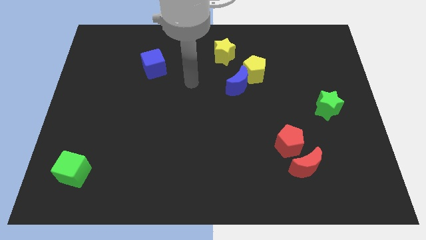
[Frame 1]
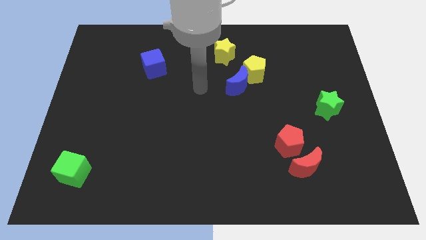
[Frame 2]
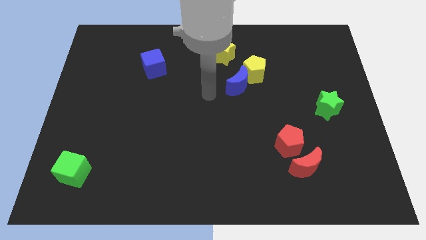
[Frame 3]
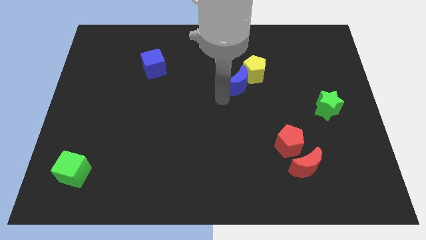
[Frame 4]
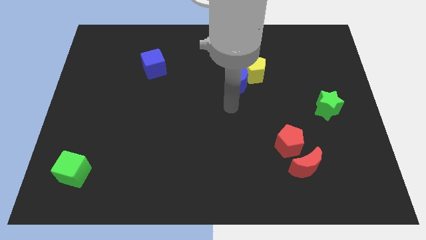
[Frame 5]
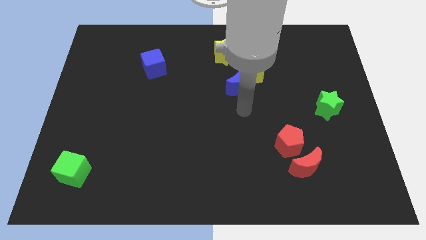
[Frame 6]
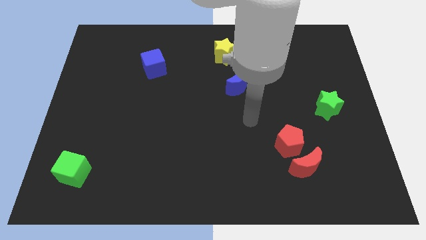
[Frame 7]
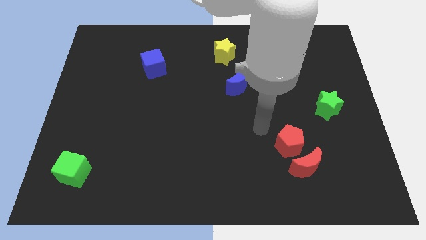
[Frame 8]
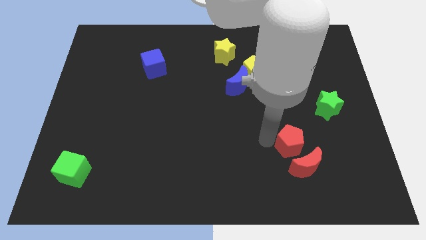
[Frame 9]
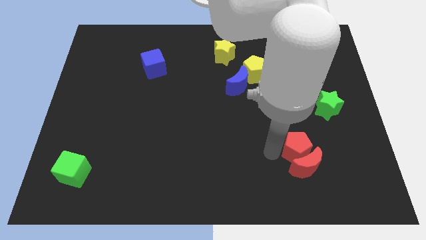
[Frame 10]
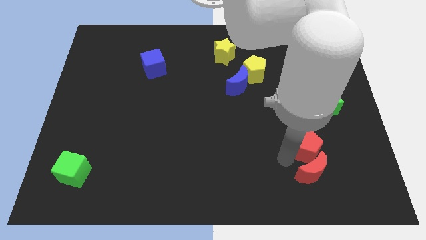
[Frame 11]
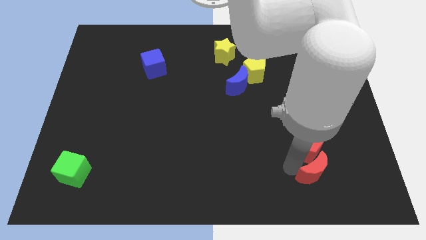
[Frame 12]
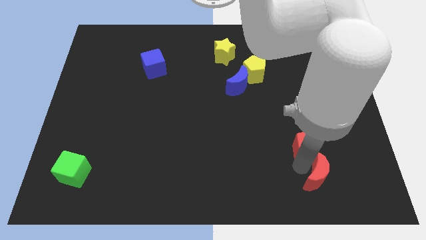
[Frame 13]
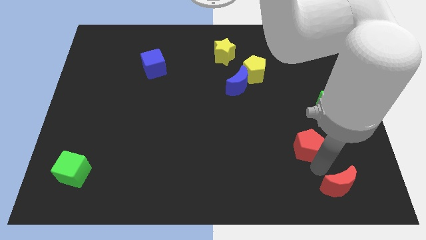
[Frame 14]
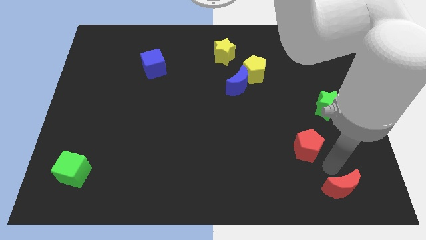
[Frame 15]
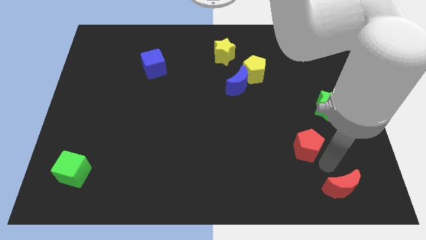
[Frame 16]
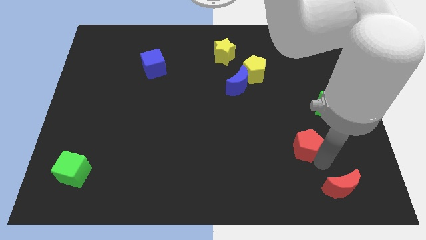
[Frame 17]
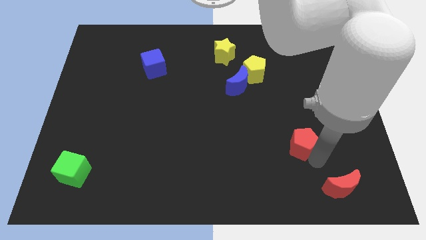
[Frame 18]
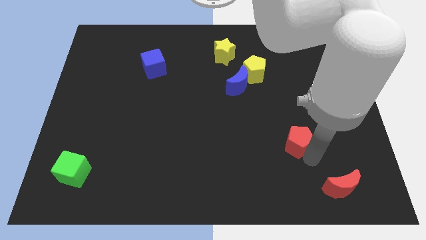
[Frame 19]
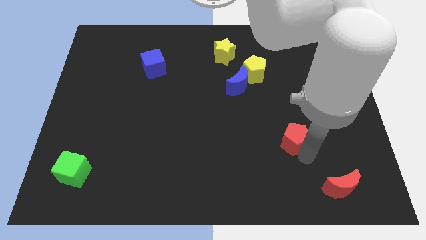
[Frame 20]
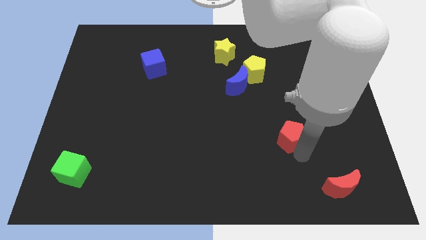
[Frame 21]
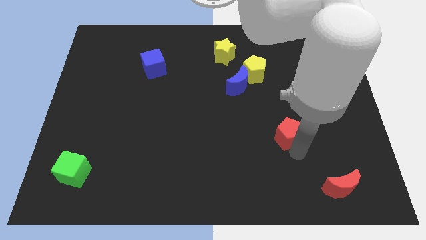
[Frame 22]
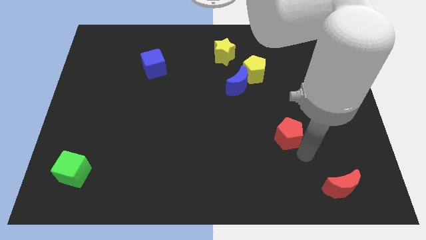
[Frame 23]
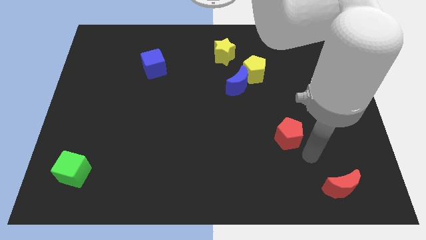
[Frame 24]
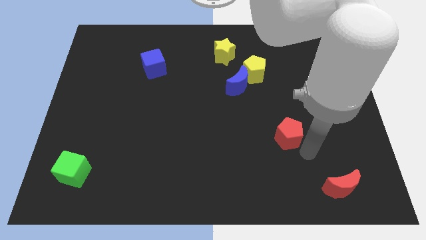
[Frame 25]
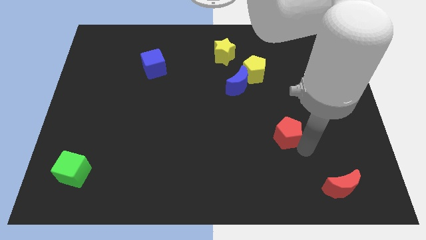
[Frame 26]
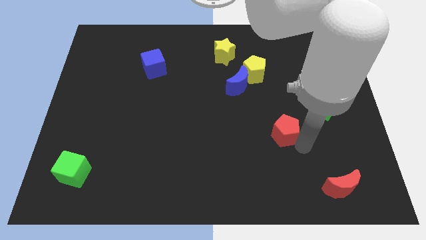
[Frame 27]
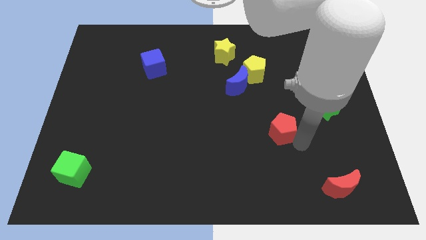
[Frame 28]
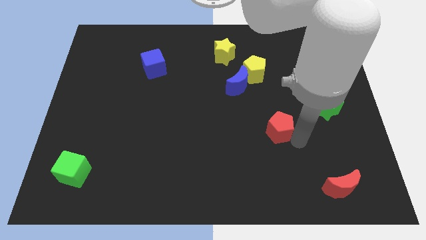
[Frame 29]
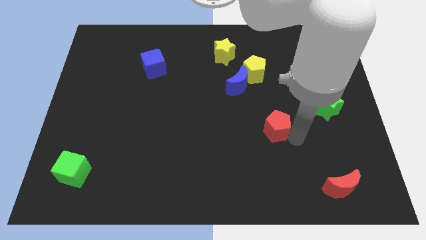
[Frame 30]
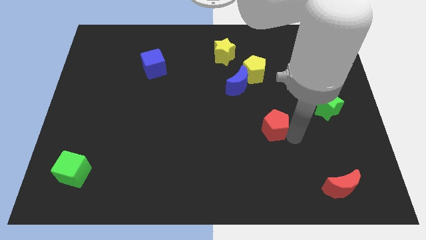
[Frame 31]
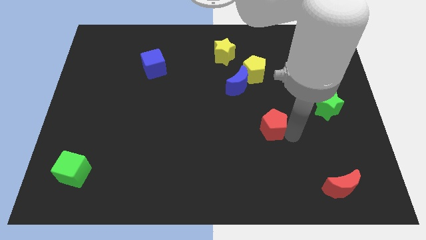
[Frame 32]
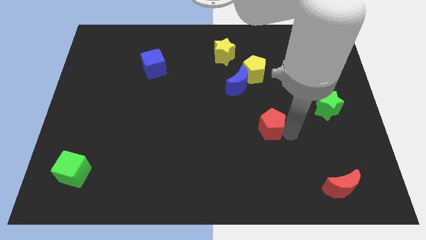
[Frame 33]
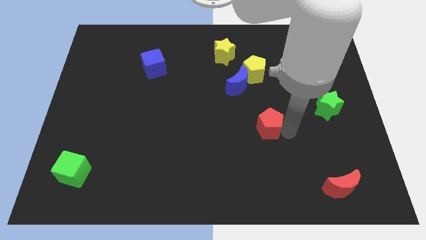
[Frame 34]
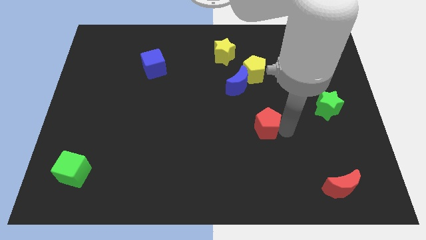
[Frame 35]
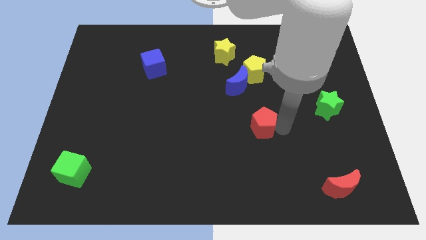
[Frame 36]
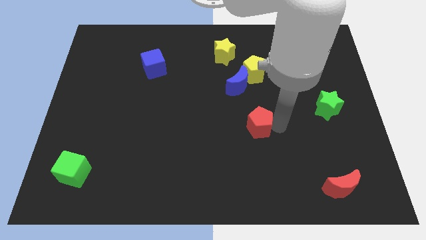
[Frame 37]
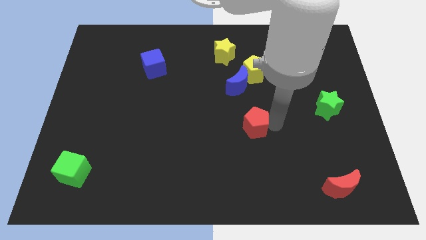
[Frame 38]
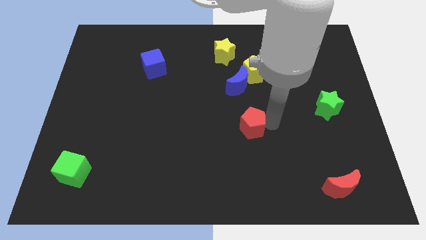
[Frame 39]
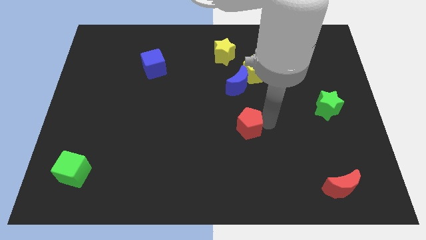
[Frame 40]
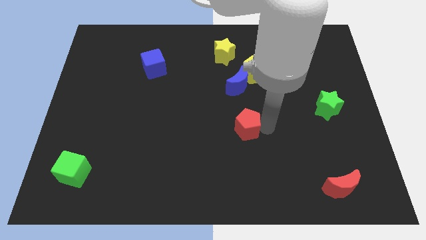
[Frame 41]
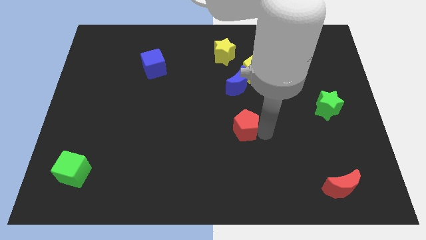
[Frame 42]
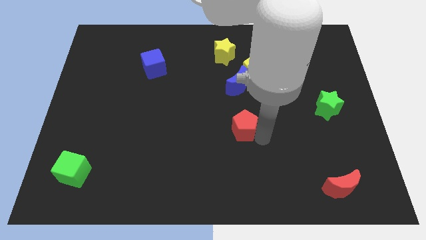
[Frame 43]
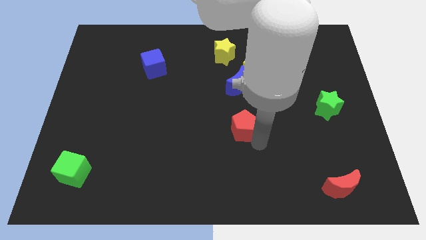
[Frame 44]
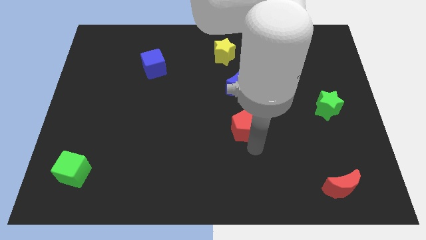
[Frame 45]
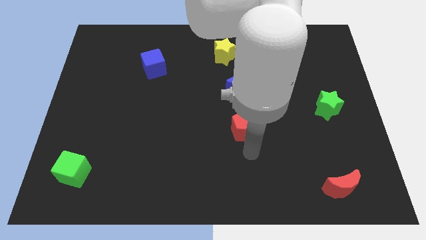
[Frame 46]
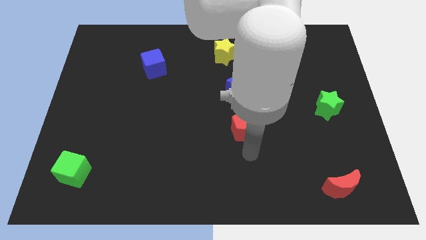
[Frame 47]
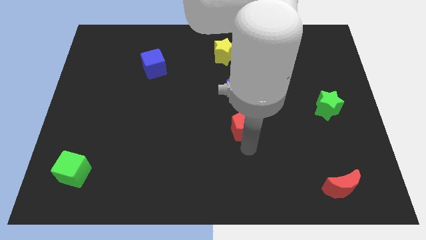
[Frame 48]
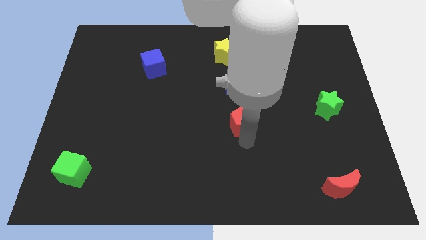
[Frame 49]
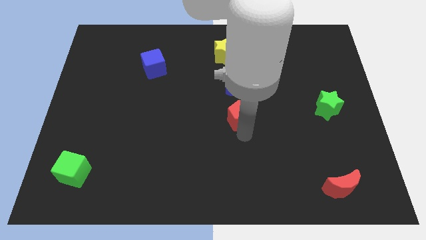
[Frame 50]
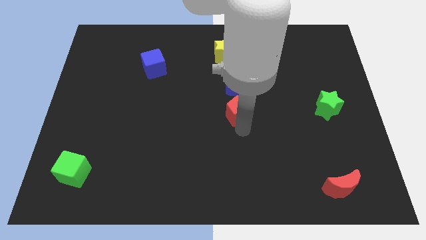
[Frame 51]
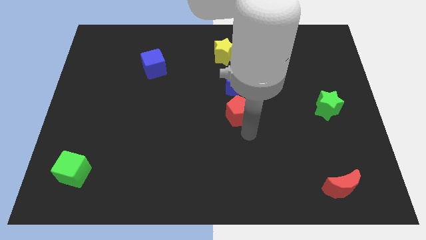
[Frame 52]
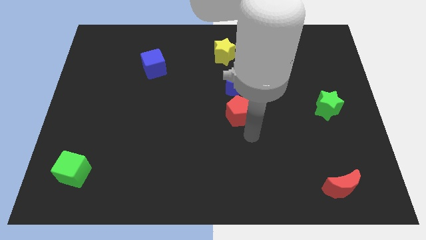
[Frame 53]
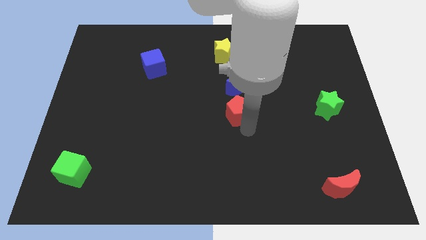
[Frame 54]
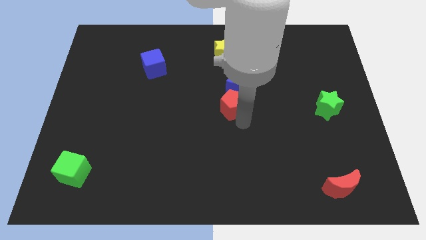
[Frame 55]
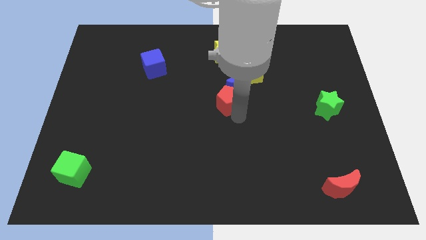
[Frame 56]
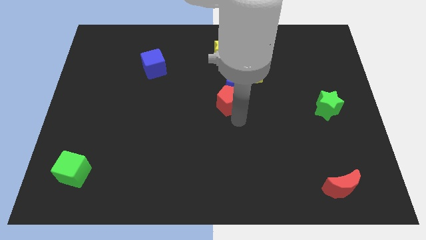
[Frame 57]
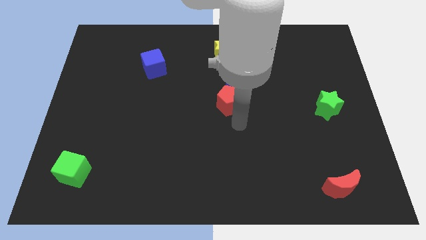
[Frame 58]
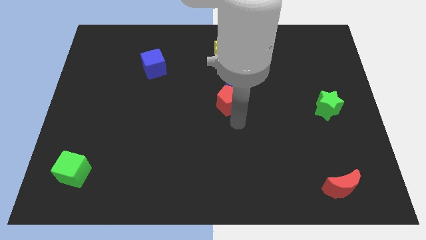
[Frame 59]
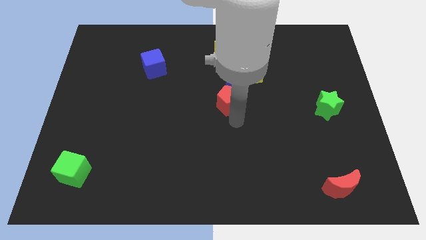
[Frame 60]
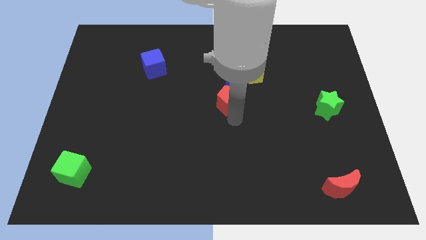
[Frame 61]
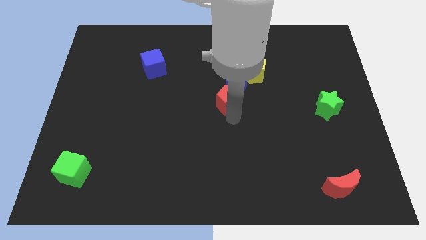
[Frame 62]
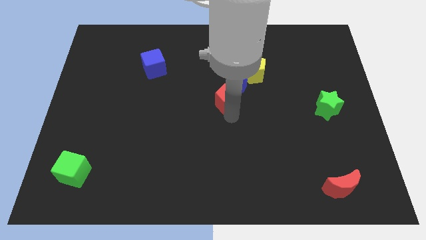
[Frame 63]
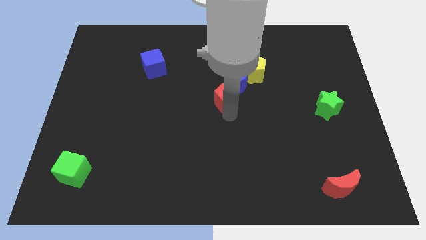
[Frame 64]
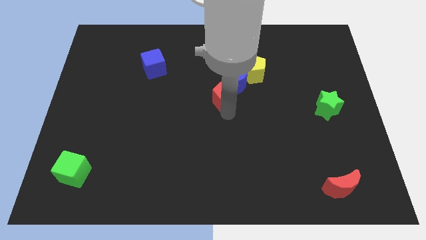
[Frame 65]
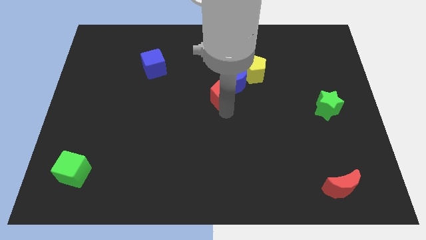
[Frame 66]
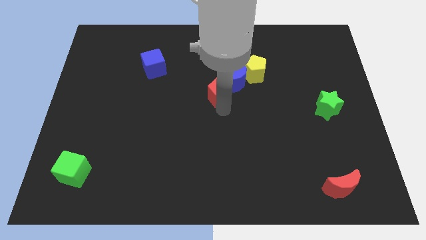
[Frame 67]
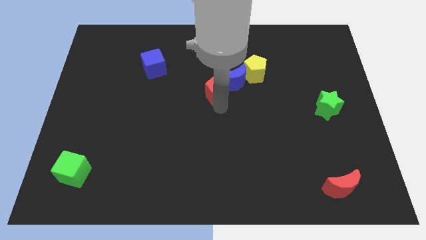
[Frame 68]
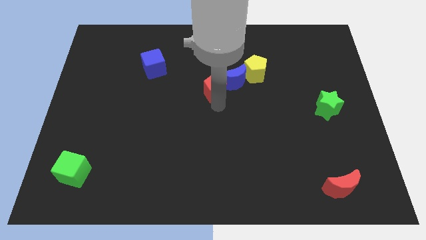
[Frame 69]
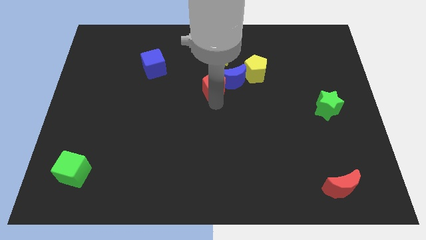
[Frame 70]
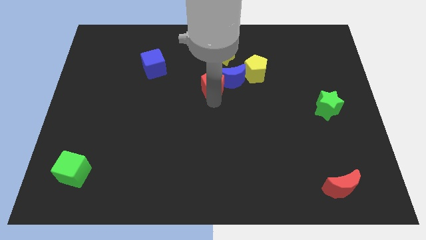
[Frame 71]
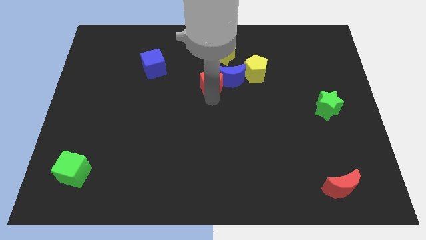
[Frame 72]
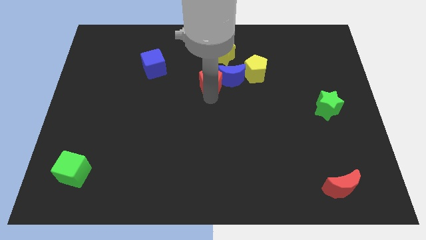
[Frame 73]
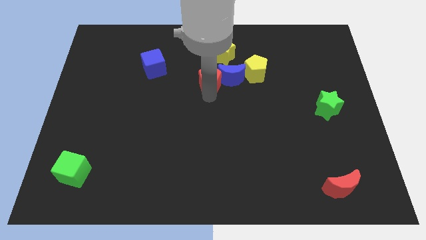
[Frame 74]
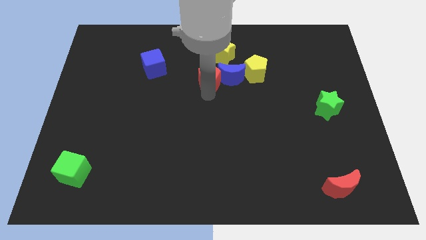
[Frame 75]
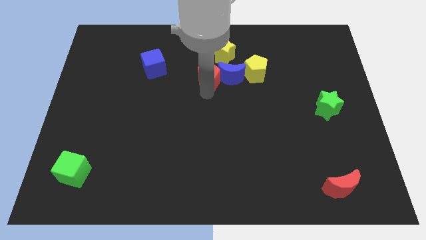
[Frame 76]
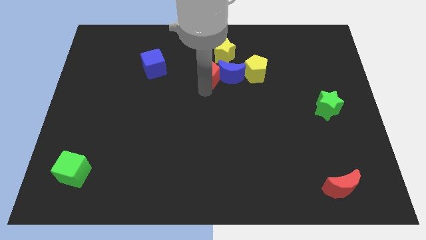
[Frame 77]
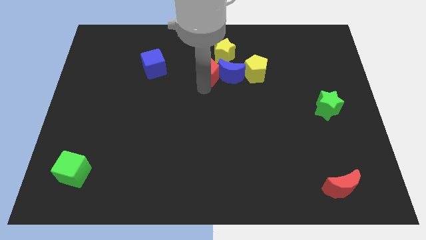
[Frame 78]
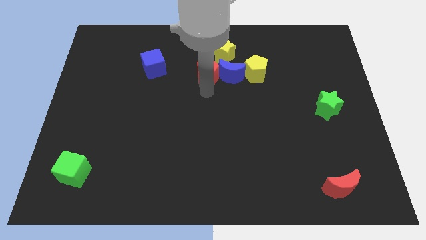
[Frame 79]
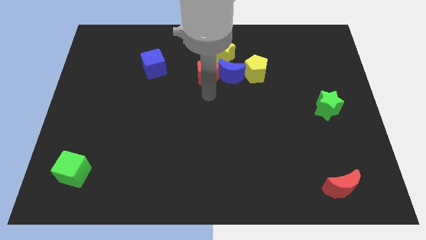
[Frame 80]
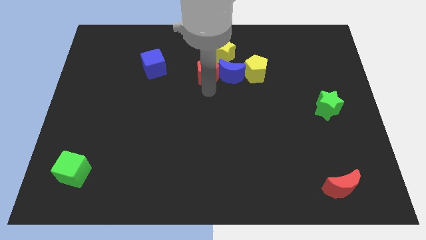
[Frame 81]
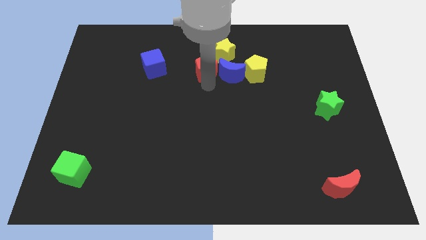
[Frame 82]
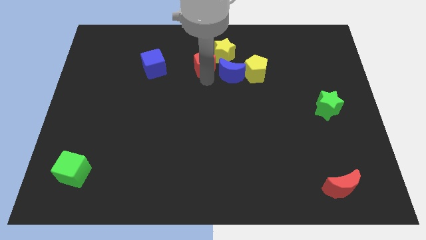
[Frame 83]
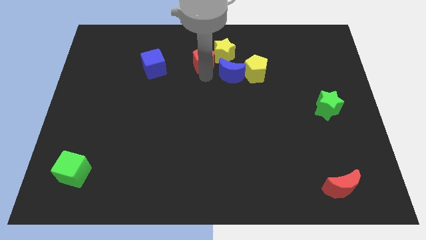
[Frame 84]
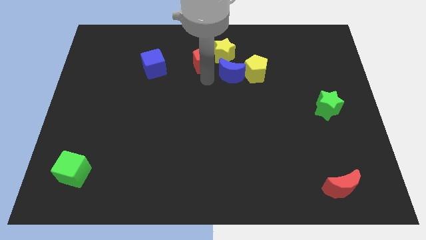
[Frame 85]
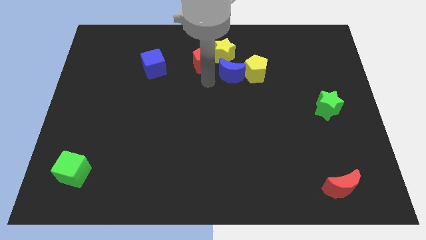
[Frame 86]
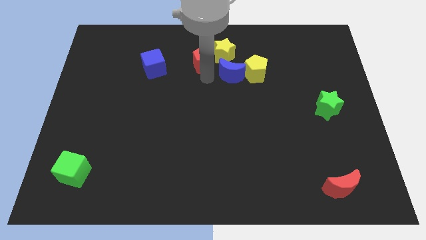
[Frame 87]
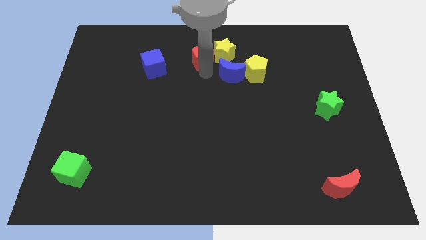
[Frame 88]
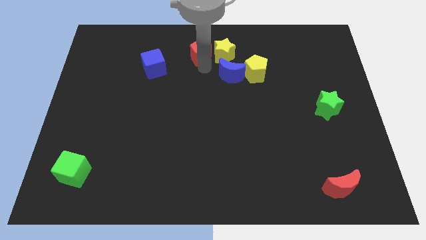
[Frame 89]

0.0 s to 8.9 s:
push the red pentagon to the top
